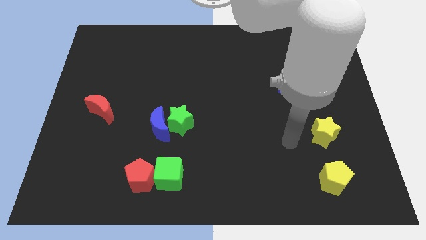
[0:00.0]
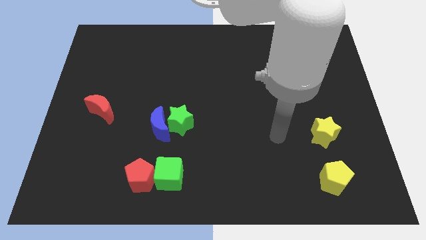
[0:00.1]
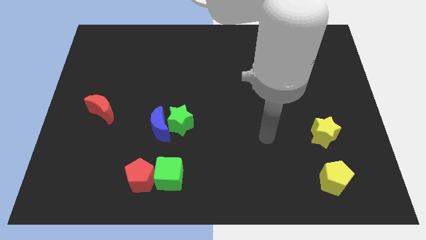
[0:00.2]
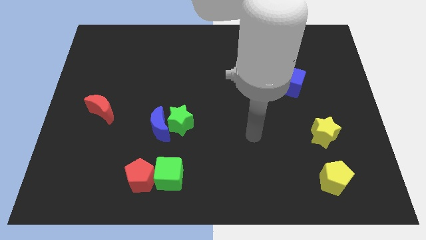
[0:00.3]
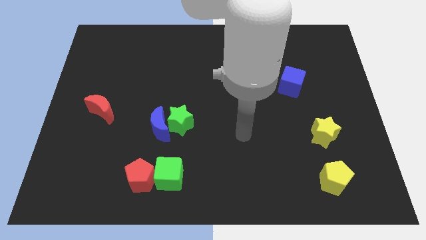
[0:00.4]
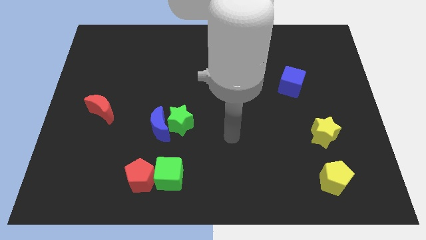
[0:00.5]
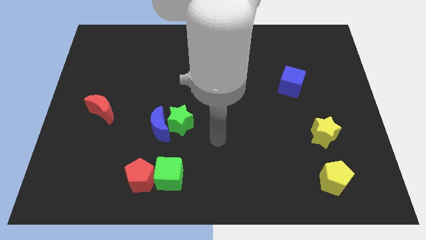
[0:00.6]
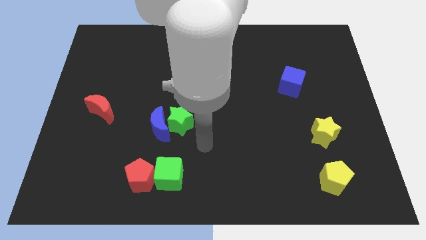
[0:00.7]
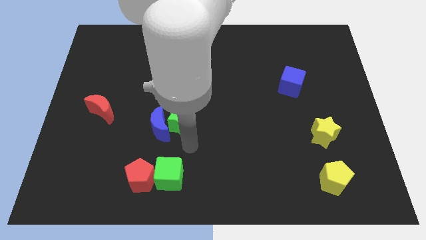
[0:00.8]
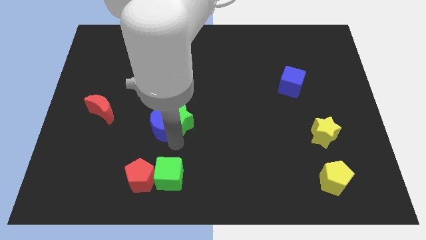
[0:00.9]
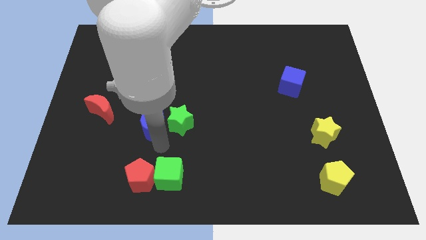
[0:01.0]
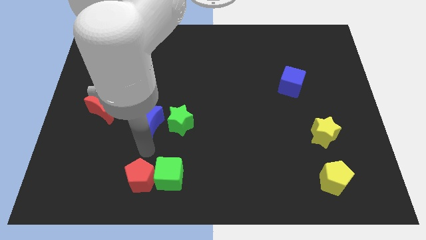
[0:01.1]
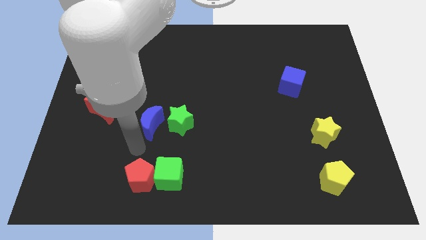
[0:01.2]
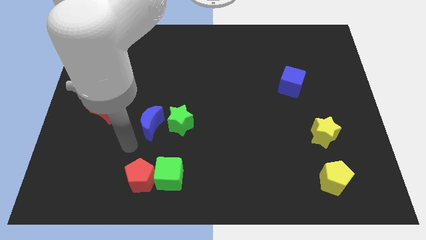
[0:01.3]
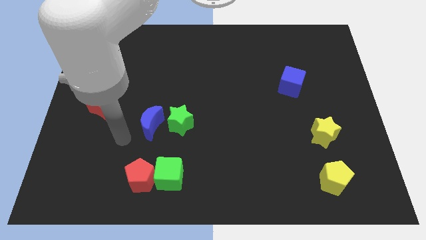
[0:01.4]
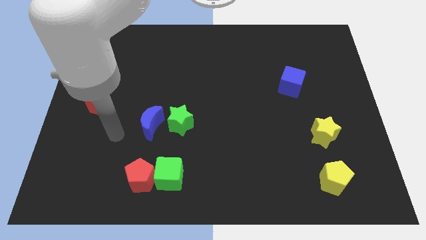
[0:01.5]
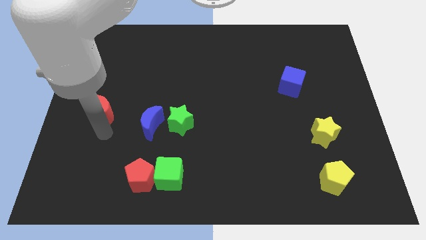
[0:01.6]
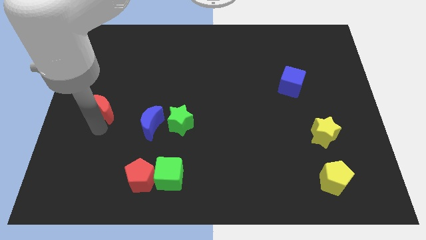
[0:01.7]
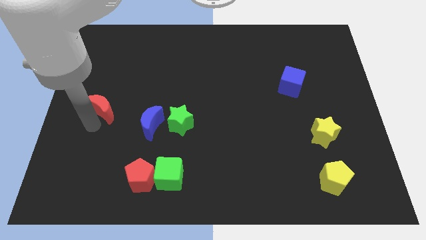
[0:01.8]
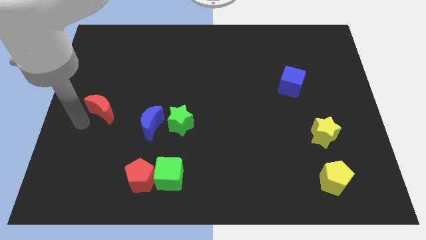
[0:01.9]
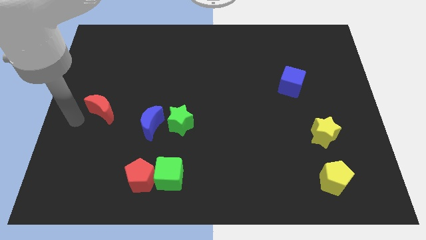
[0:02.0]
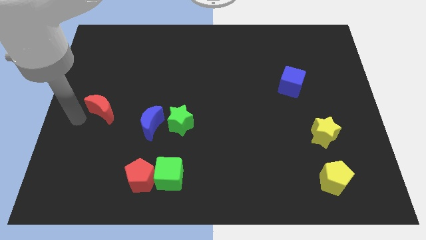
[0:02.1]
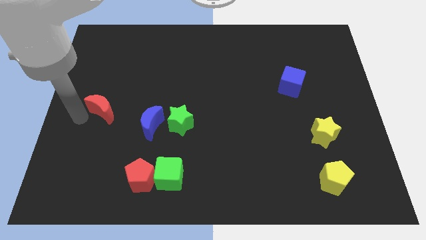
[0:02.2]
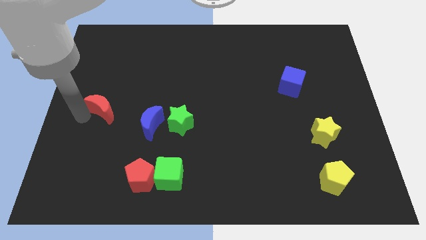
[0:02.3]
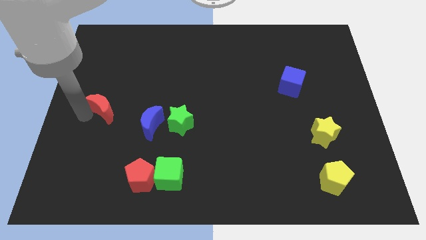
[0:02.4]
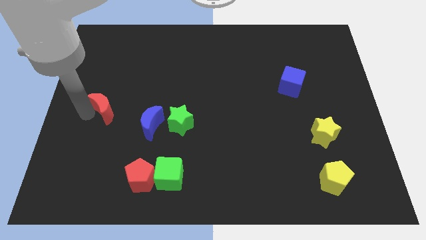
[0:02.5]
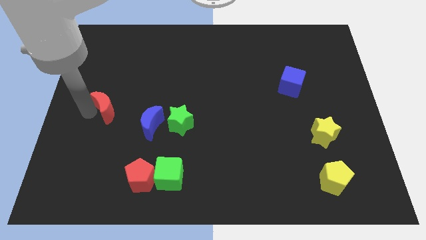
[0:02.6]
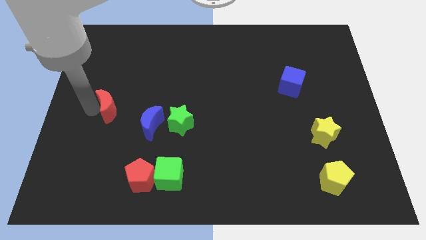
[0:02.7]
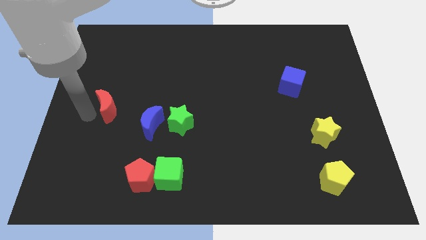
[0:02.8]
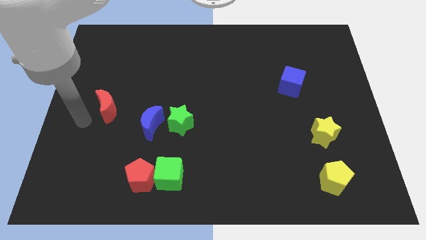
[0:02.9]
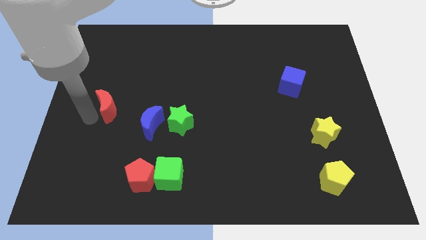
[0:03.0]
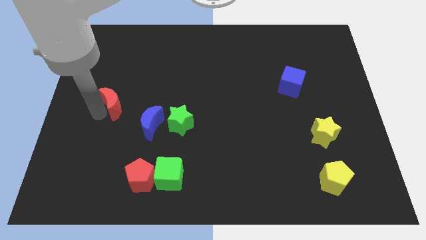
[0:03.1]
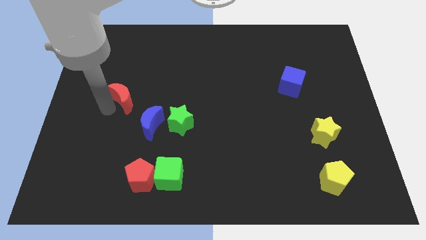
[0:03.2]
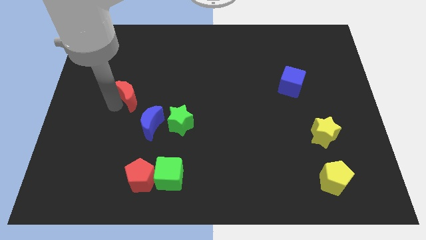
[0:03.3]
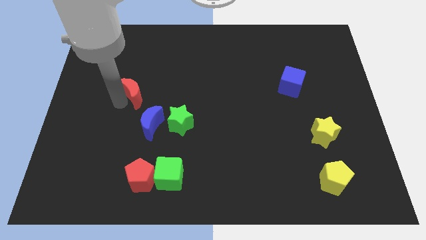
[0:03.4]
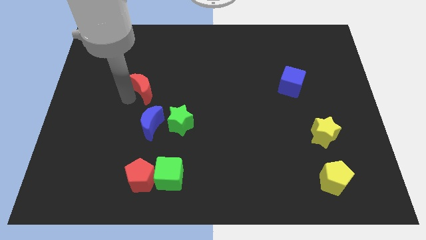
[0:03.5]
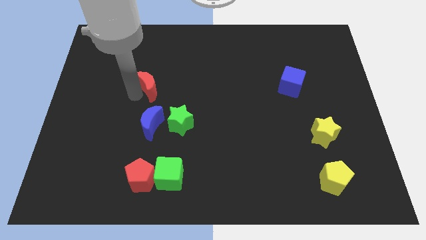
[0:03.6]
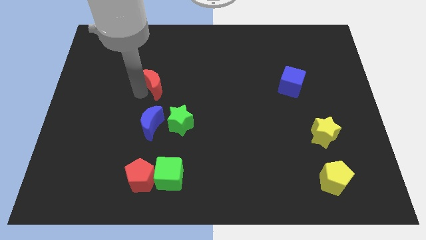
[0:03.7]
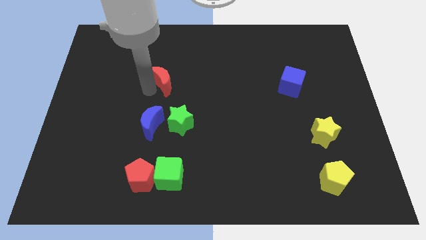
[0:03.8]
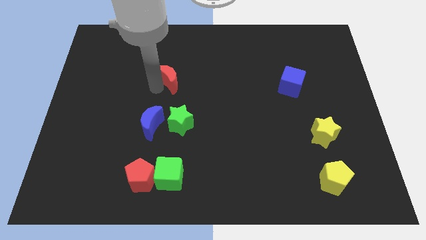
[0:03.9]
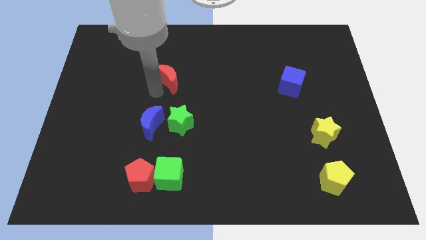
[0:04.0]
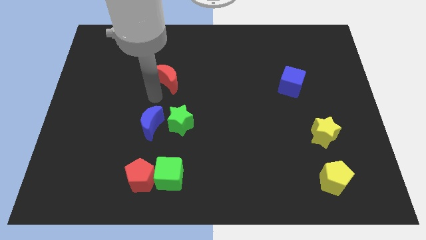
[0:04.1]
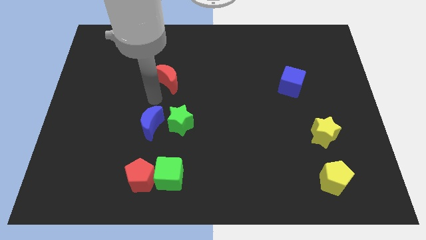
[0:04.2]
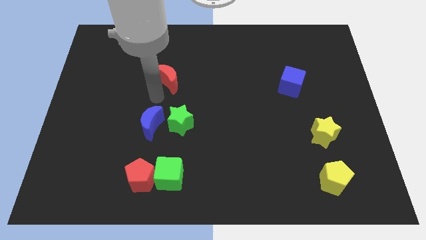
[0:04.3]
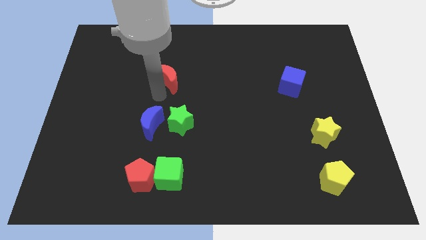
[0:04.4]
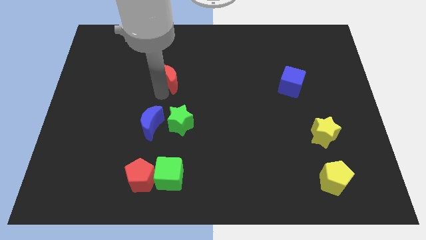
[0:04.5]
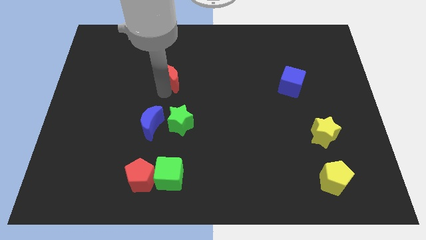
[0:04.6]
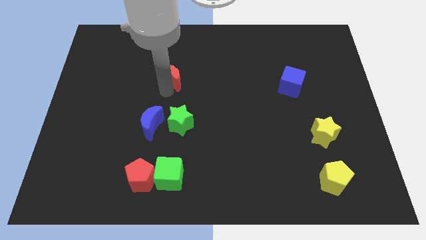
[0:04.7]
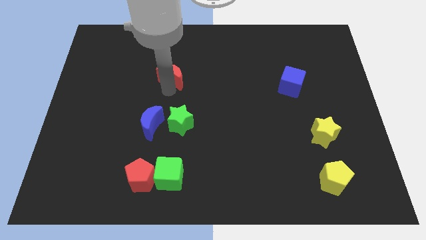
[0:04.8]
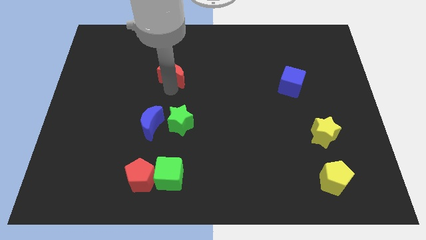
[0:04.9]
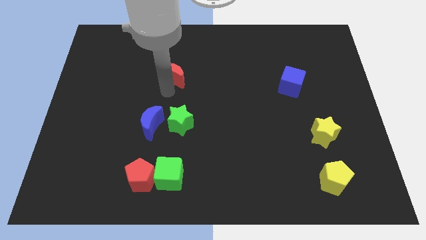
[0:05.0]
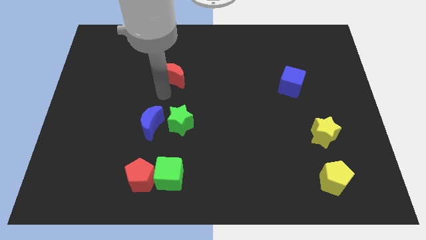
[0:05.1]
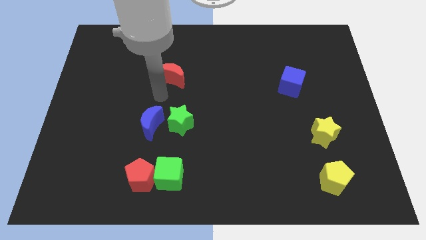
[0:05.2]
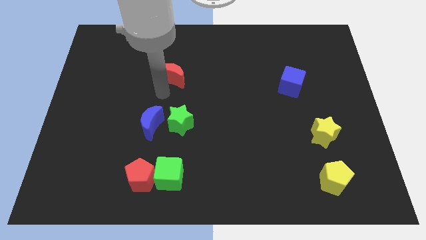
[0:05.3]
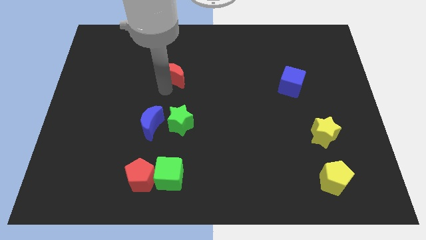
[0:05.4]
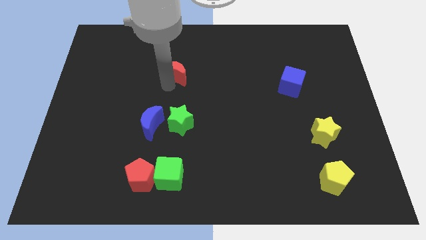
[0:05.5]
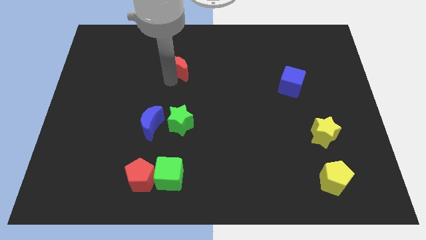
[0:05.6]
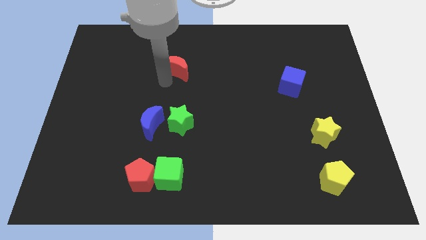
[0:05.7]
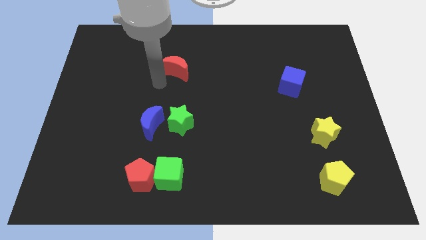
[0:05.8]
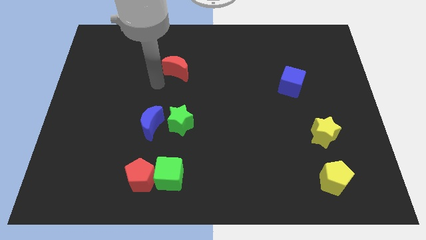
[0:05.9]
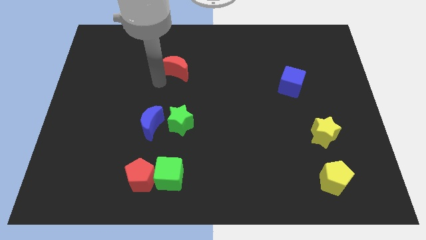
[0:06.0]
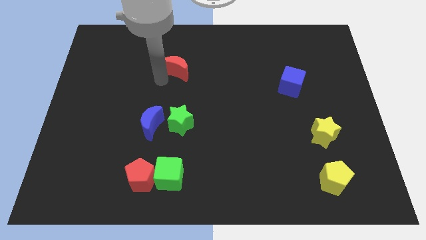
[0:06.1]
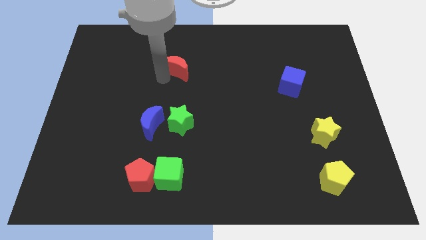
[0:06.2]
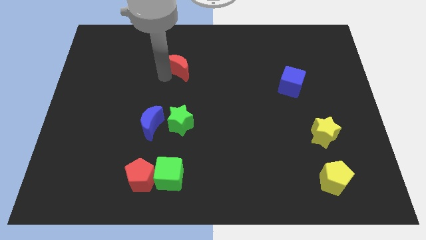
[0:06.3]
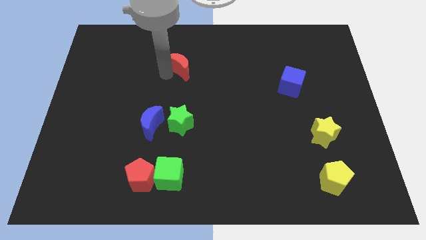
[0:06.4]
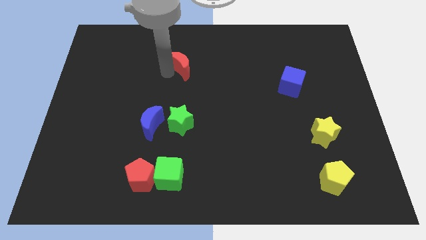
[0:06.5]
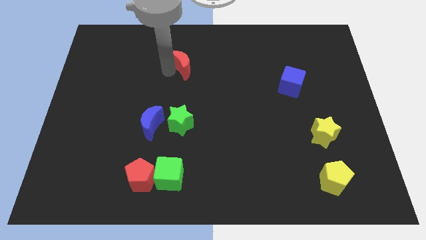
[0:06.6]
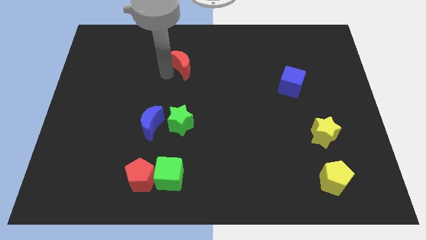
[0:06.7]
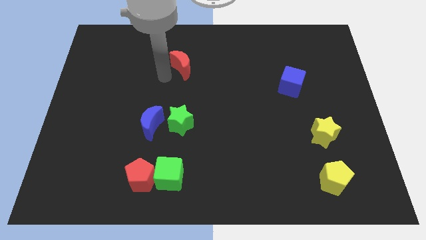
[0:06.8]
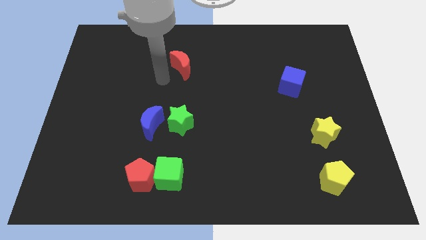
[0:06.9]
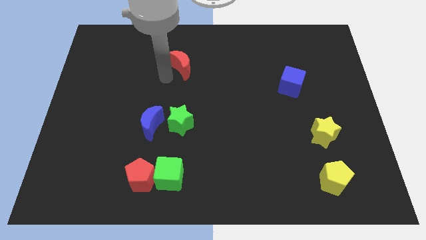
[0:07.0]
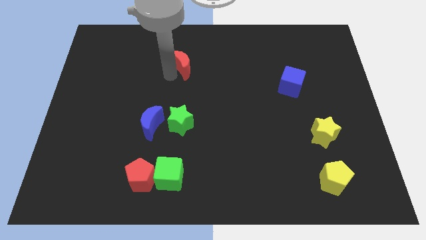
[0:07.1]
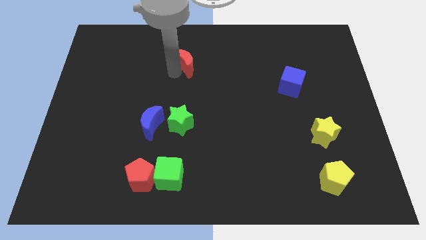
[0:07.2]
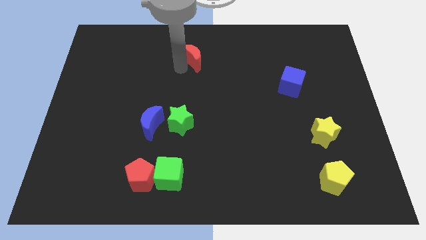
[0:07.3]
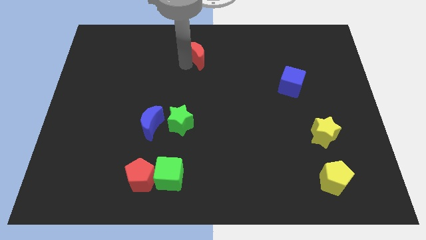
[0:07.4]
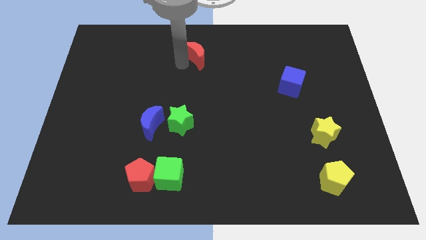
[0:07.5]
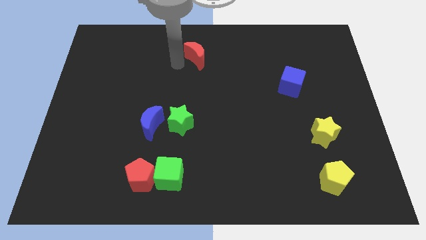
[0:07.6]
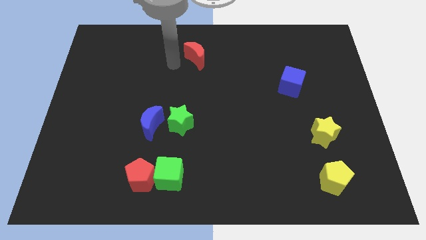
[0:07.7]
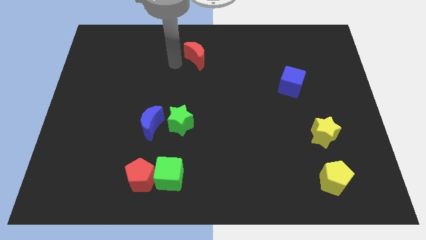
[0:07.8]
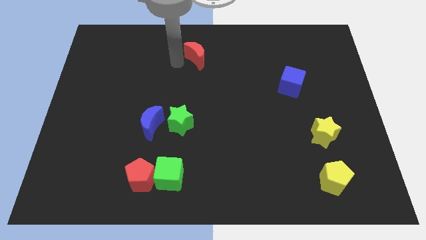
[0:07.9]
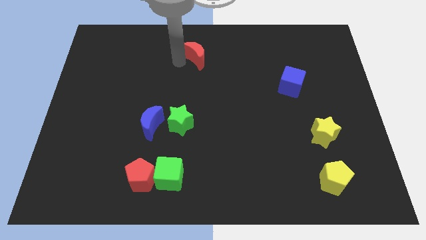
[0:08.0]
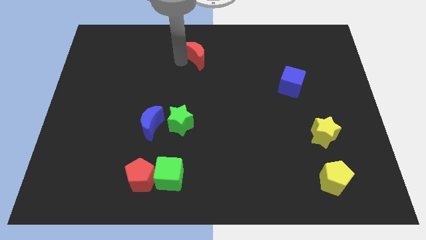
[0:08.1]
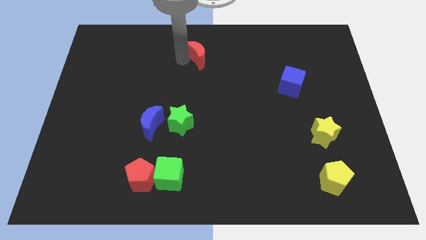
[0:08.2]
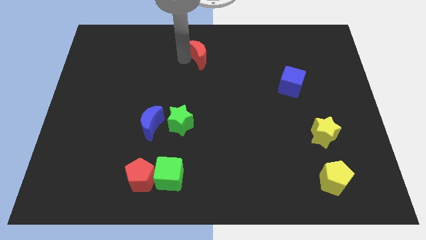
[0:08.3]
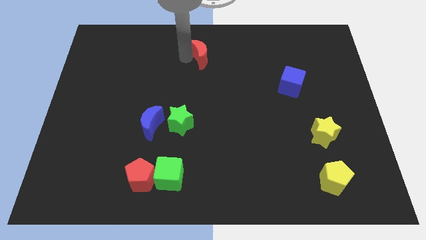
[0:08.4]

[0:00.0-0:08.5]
slide the red moon to the top
